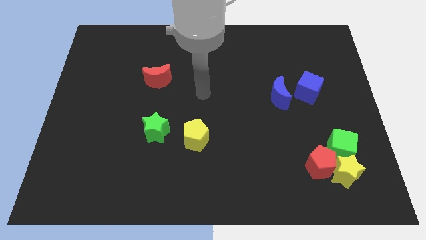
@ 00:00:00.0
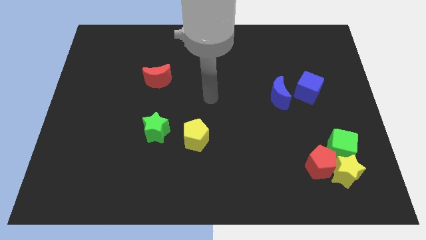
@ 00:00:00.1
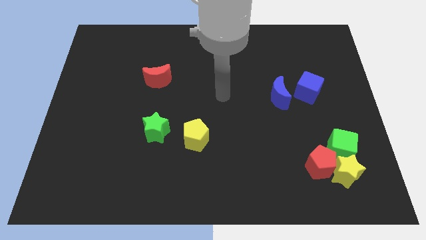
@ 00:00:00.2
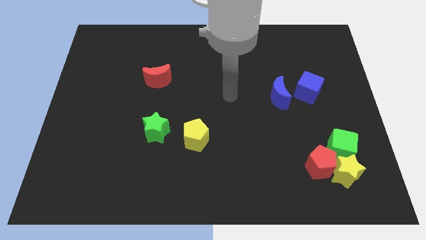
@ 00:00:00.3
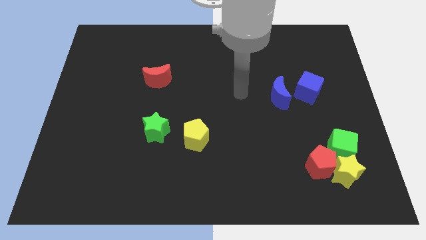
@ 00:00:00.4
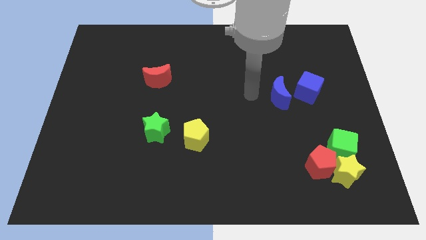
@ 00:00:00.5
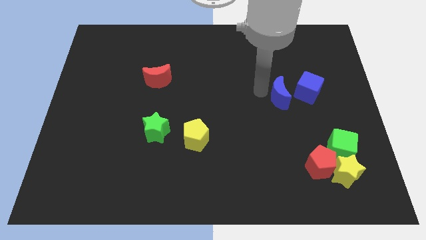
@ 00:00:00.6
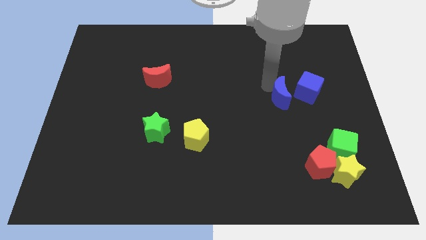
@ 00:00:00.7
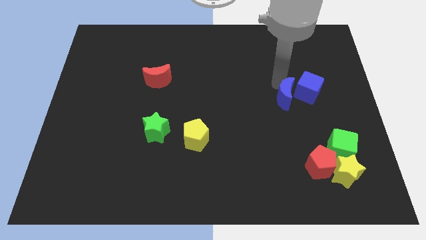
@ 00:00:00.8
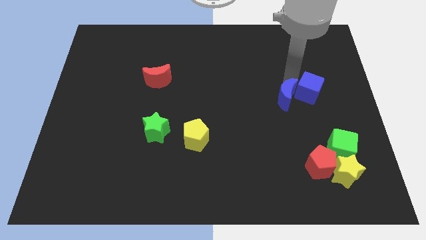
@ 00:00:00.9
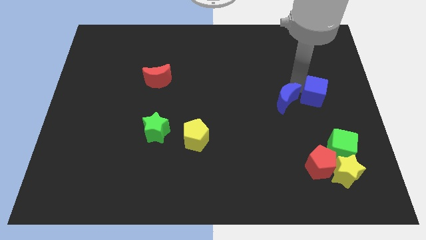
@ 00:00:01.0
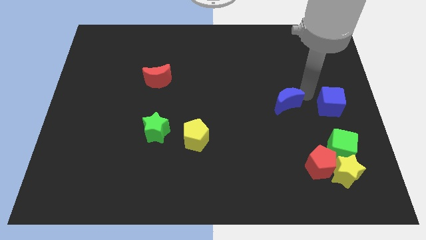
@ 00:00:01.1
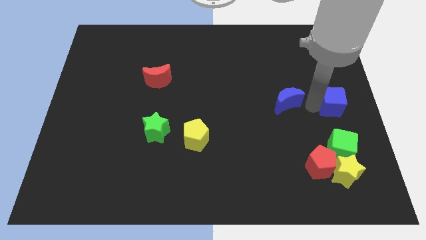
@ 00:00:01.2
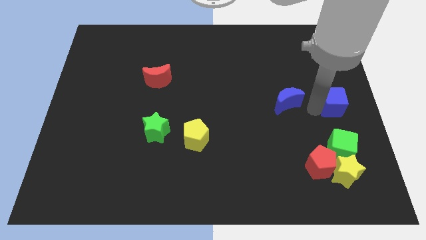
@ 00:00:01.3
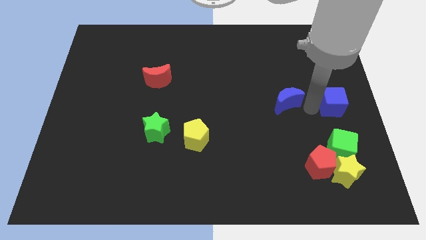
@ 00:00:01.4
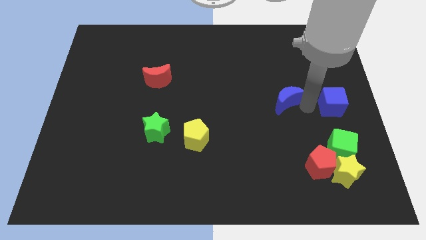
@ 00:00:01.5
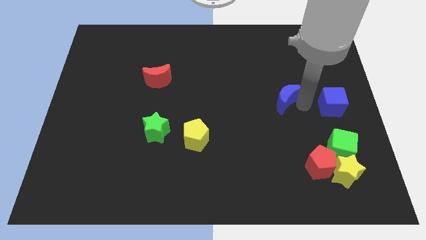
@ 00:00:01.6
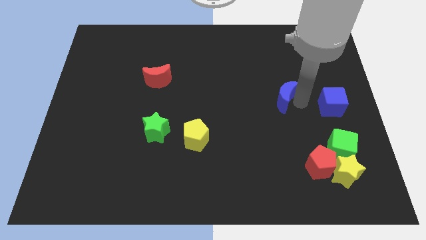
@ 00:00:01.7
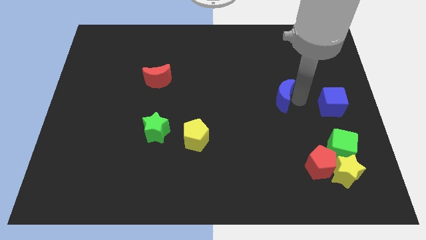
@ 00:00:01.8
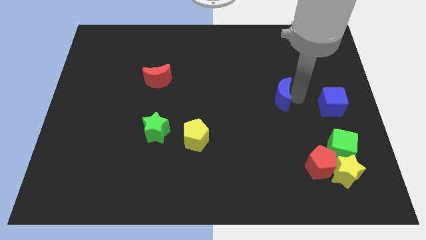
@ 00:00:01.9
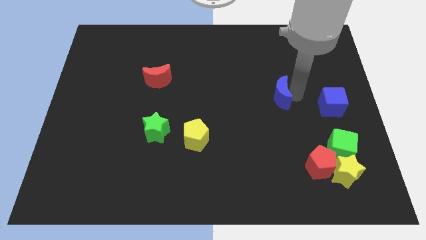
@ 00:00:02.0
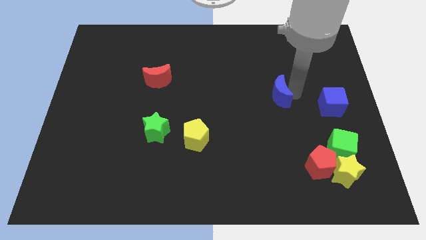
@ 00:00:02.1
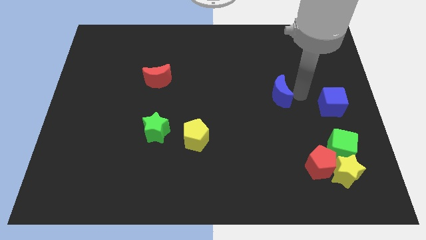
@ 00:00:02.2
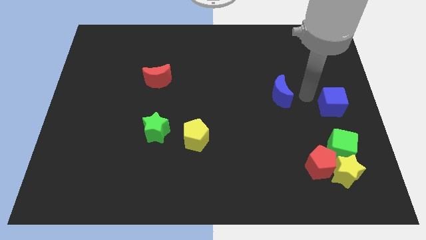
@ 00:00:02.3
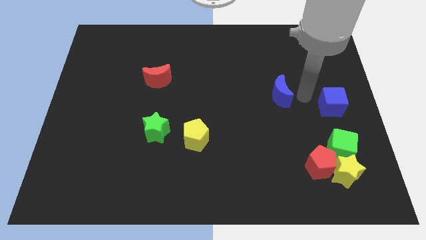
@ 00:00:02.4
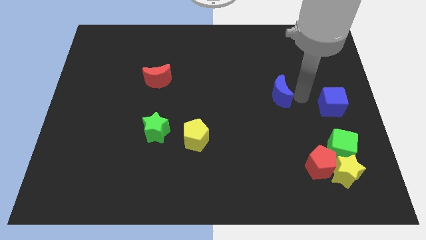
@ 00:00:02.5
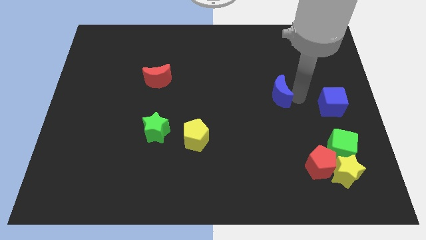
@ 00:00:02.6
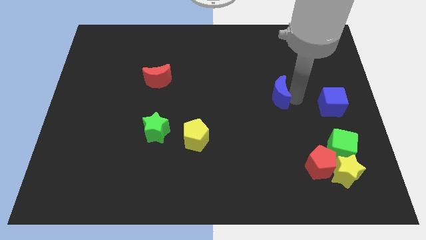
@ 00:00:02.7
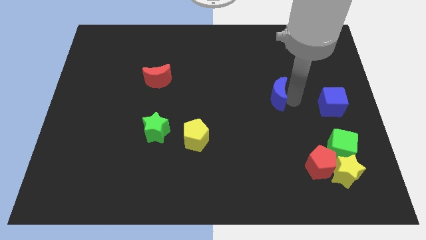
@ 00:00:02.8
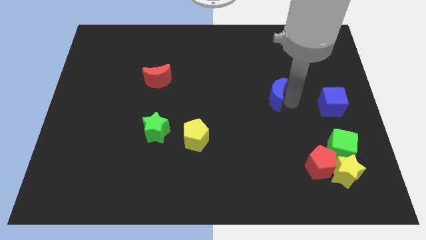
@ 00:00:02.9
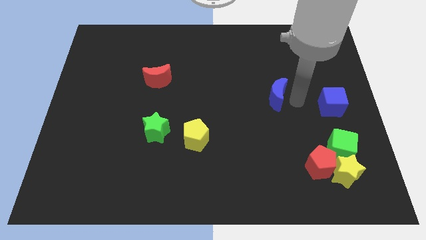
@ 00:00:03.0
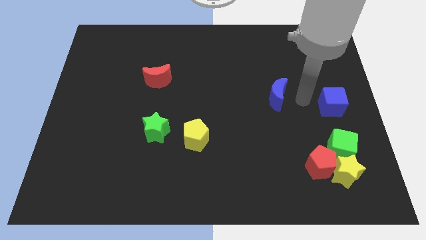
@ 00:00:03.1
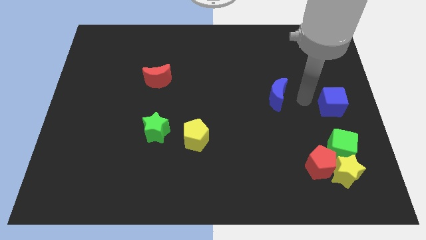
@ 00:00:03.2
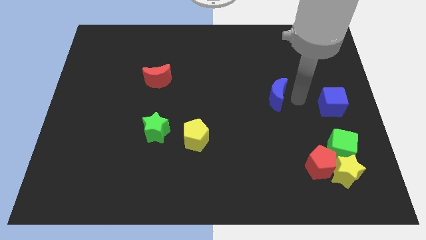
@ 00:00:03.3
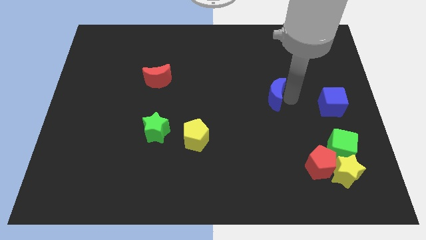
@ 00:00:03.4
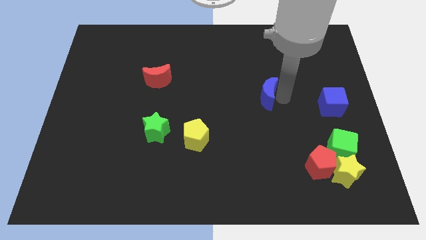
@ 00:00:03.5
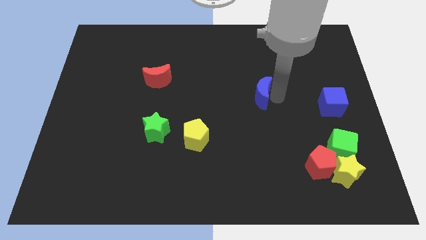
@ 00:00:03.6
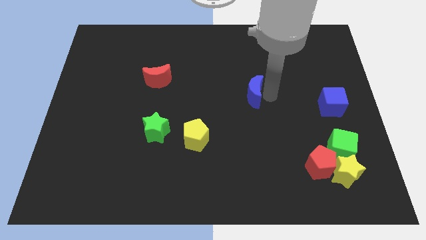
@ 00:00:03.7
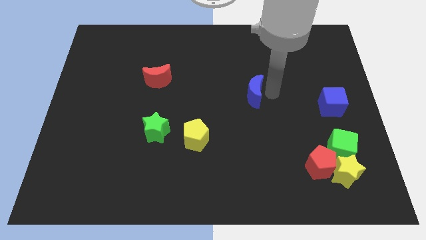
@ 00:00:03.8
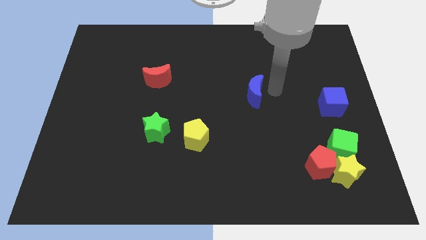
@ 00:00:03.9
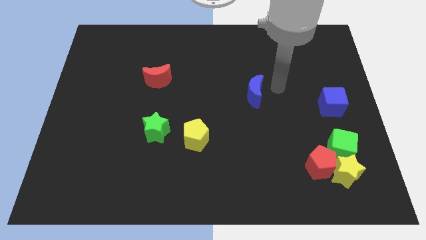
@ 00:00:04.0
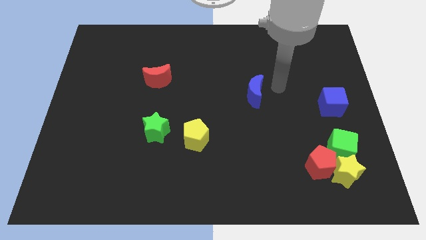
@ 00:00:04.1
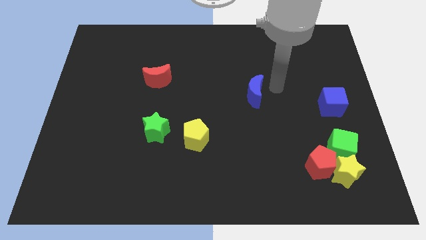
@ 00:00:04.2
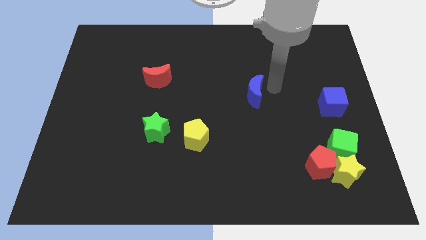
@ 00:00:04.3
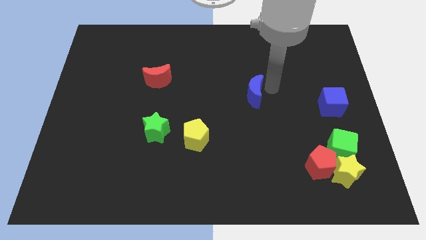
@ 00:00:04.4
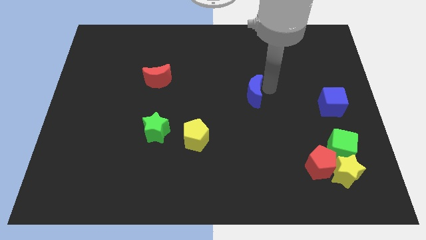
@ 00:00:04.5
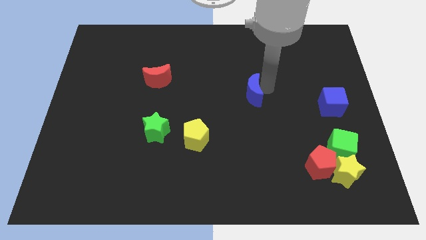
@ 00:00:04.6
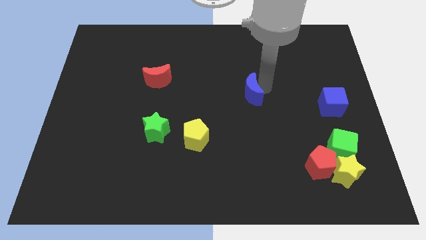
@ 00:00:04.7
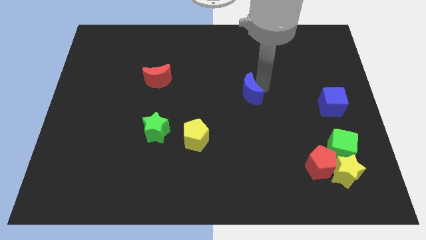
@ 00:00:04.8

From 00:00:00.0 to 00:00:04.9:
push the blue moon somewhat to the left

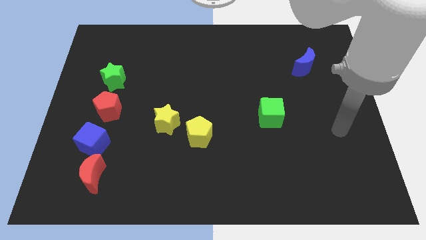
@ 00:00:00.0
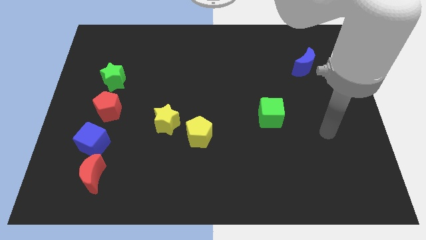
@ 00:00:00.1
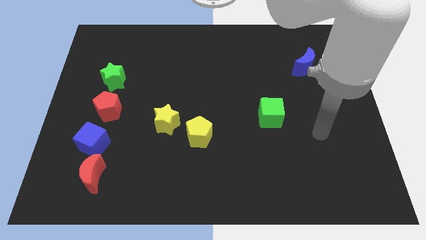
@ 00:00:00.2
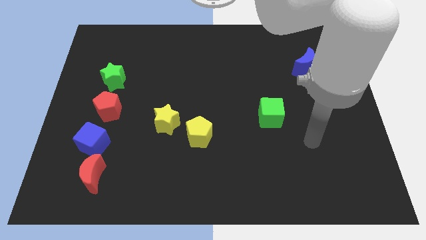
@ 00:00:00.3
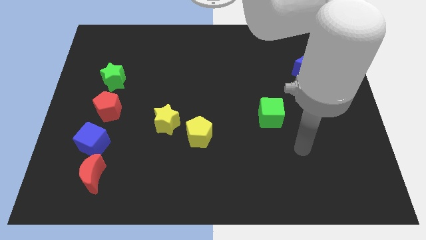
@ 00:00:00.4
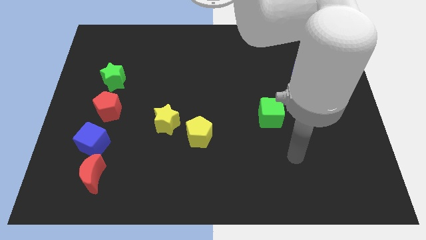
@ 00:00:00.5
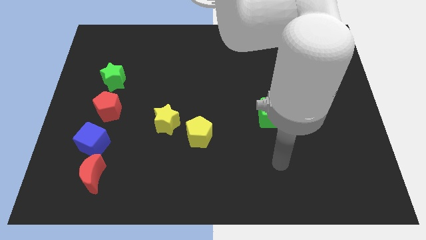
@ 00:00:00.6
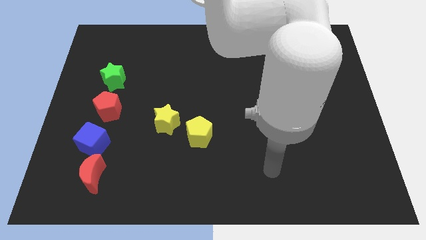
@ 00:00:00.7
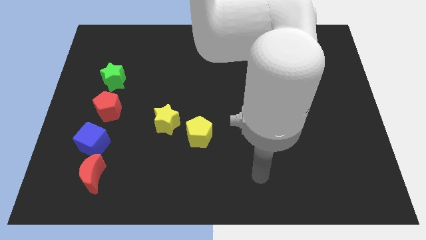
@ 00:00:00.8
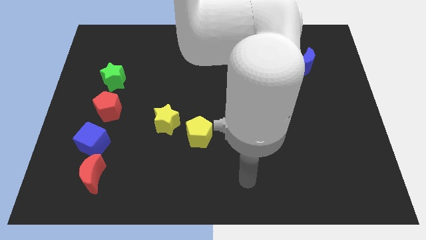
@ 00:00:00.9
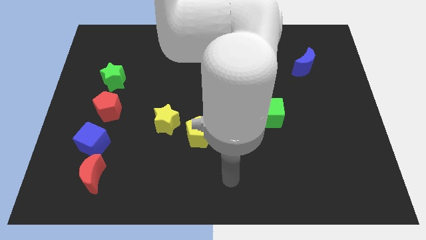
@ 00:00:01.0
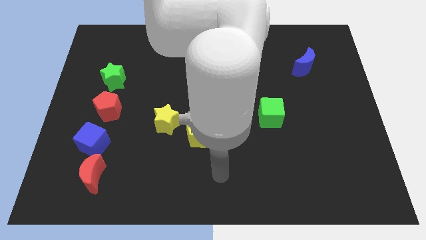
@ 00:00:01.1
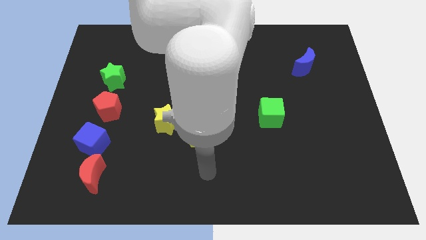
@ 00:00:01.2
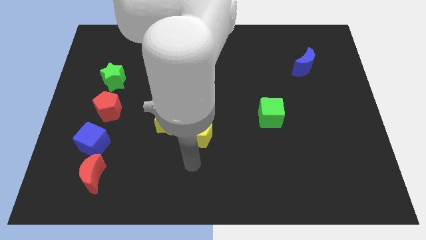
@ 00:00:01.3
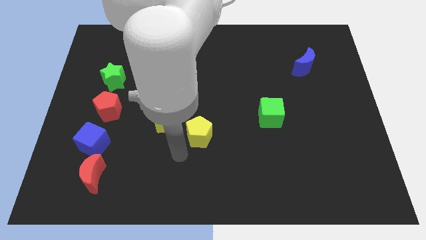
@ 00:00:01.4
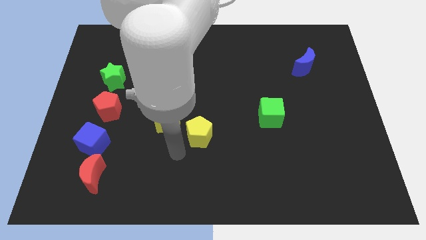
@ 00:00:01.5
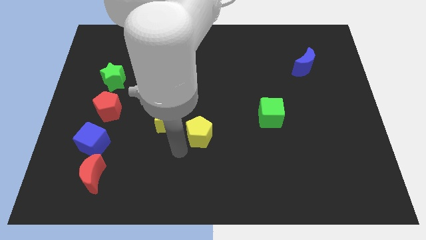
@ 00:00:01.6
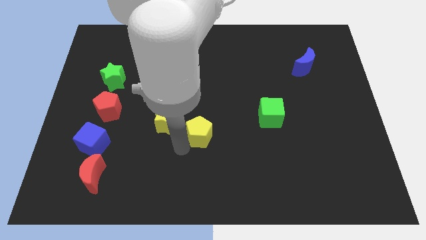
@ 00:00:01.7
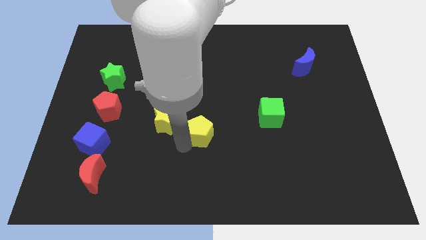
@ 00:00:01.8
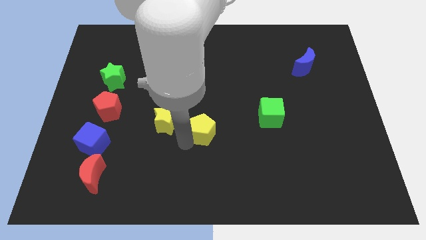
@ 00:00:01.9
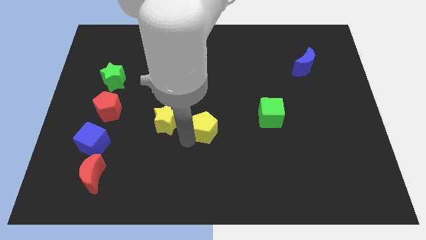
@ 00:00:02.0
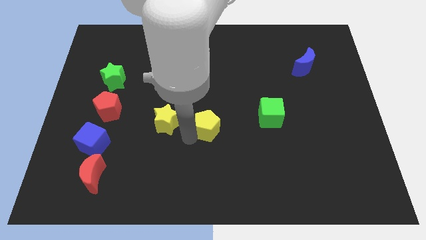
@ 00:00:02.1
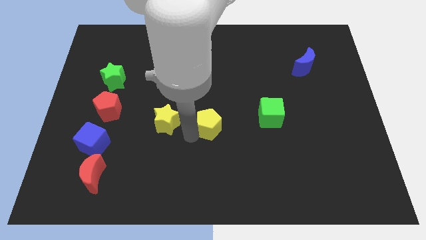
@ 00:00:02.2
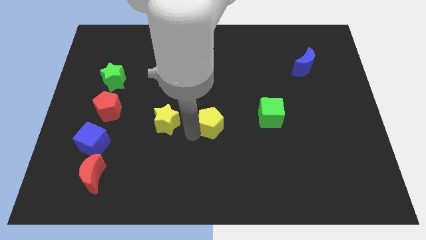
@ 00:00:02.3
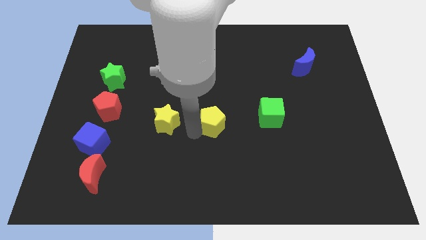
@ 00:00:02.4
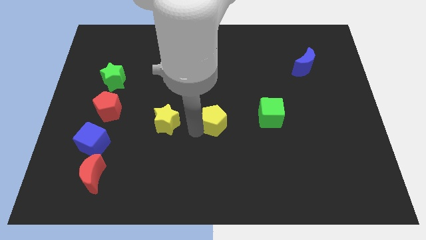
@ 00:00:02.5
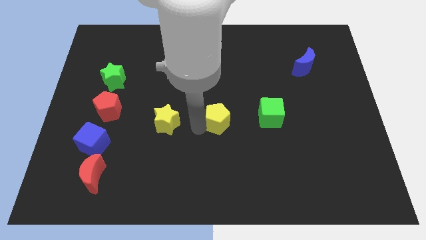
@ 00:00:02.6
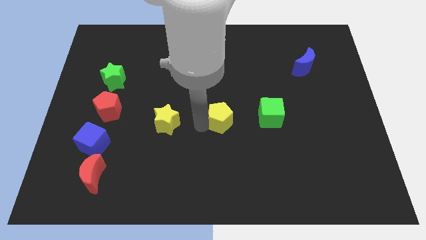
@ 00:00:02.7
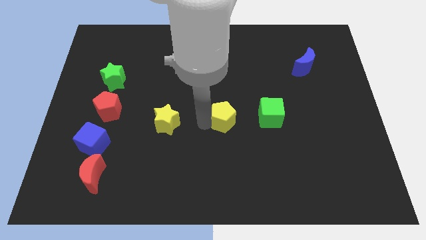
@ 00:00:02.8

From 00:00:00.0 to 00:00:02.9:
push the yellow pentagon a little bit upwards and to the right

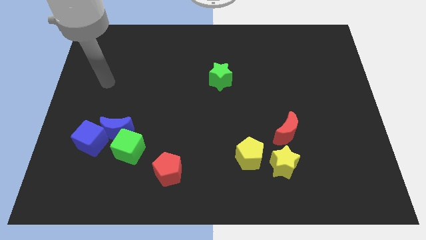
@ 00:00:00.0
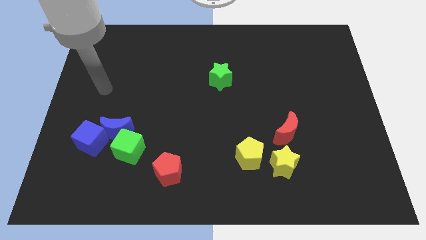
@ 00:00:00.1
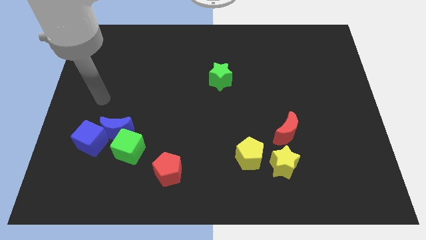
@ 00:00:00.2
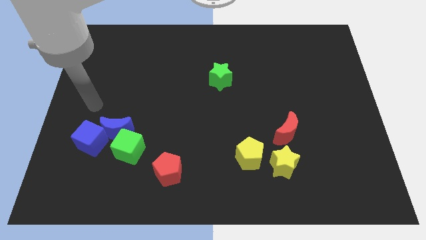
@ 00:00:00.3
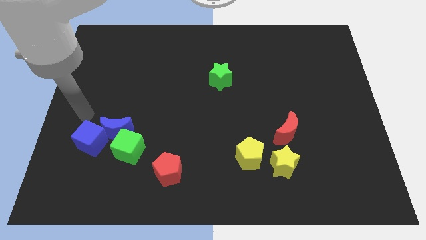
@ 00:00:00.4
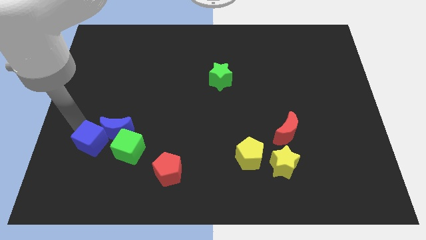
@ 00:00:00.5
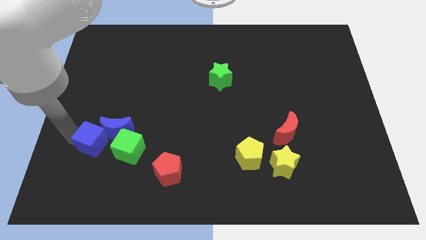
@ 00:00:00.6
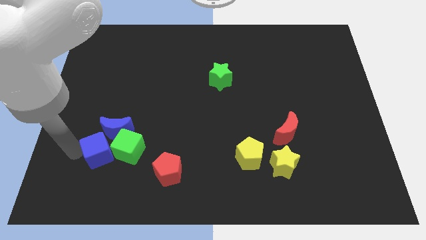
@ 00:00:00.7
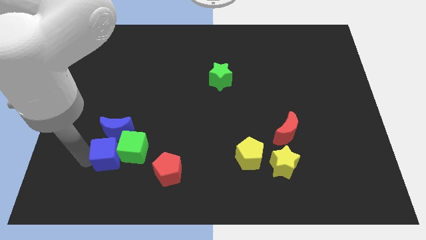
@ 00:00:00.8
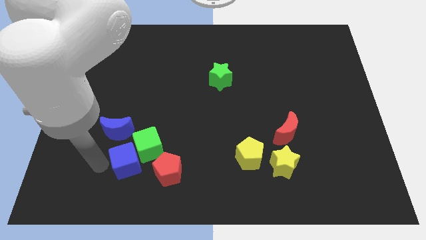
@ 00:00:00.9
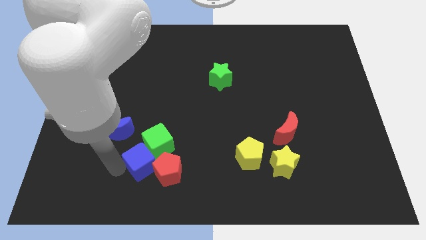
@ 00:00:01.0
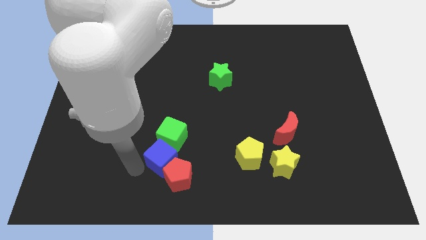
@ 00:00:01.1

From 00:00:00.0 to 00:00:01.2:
slide the green cube a little upwards and to the right
